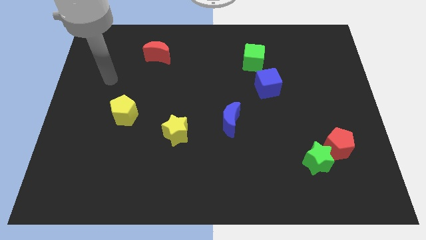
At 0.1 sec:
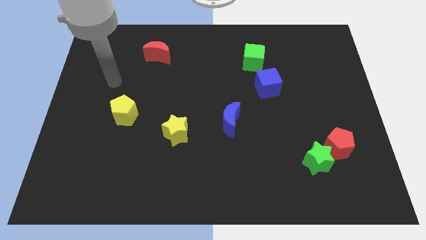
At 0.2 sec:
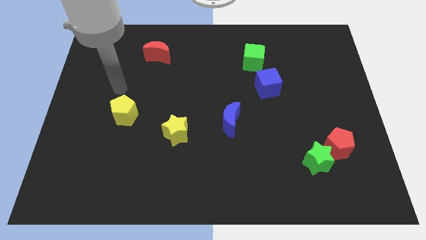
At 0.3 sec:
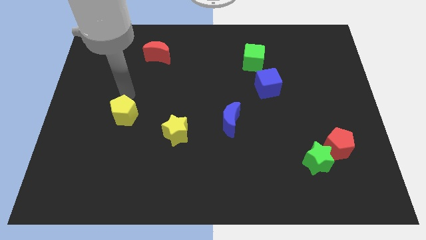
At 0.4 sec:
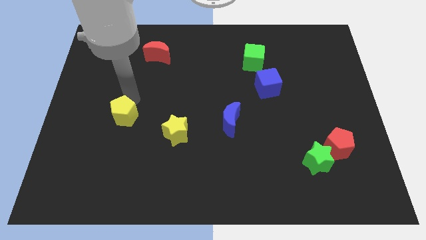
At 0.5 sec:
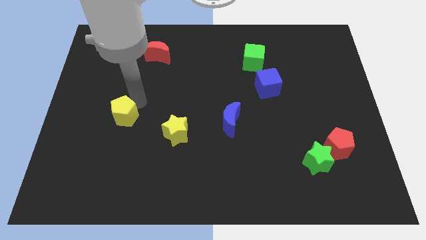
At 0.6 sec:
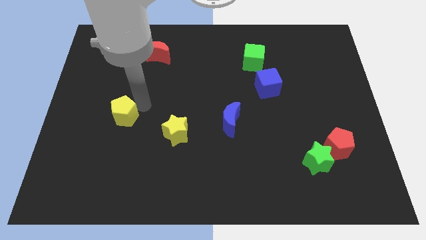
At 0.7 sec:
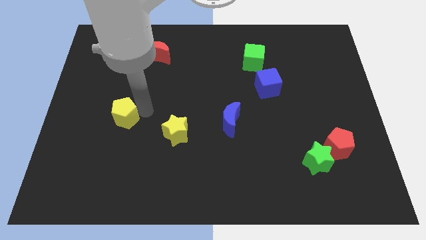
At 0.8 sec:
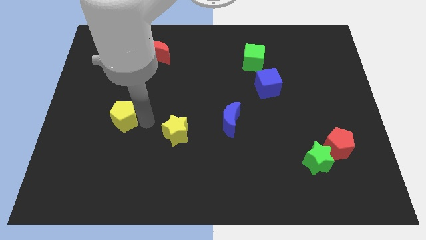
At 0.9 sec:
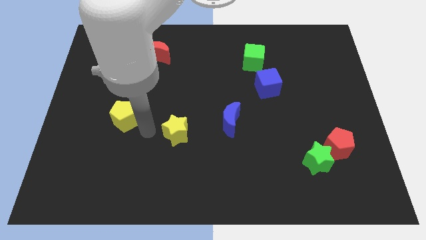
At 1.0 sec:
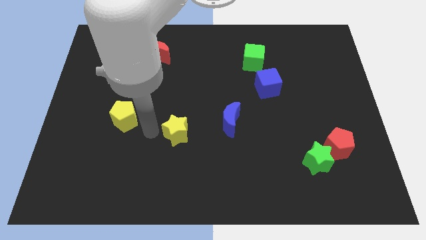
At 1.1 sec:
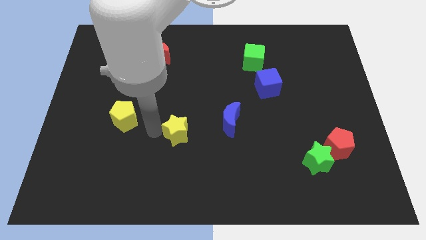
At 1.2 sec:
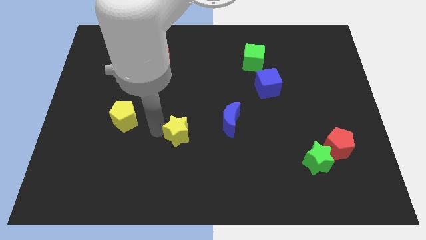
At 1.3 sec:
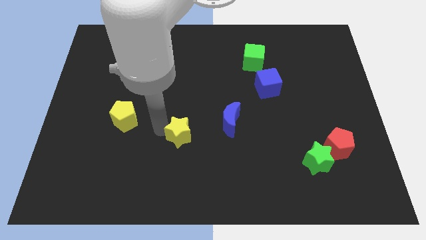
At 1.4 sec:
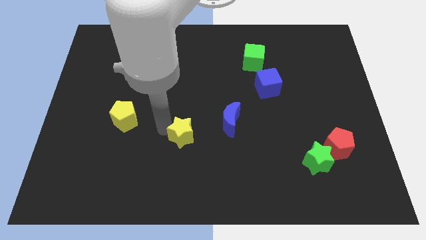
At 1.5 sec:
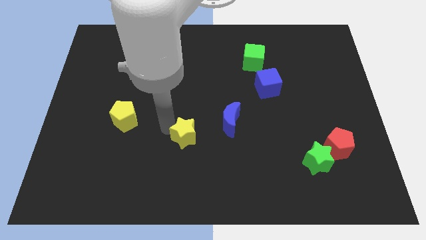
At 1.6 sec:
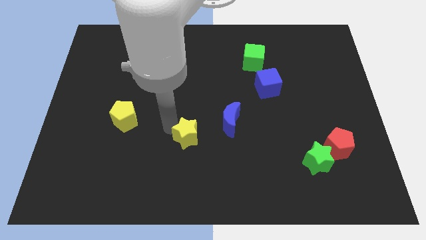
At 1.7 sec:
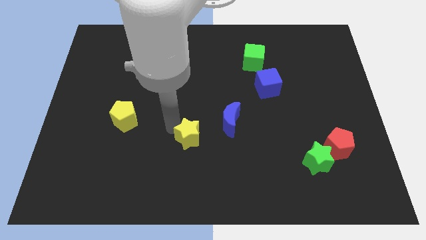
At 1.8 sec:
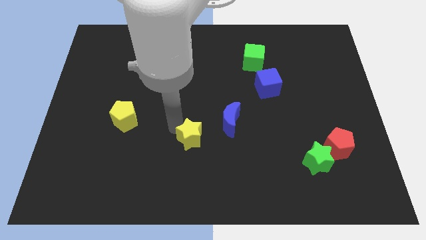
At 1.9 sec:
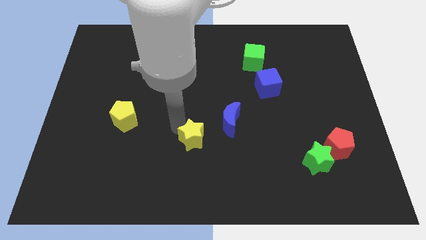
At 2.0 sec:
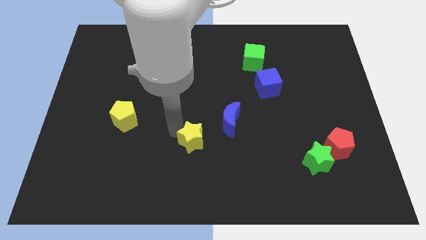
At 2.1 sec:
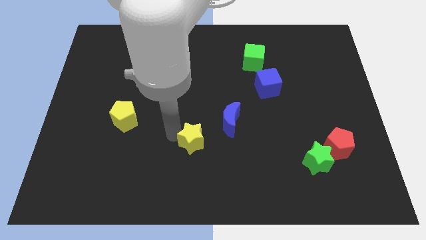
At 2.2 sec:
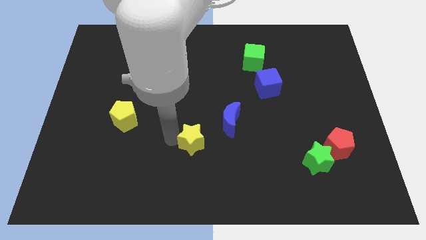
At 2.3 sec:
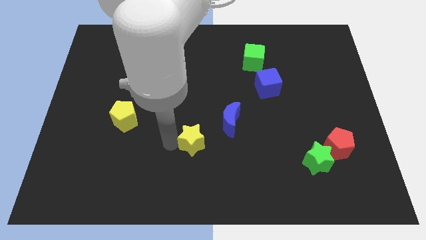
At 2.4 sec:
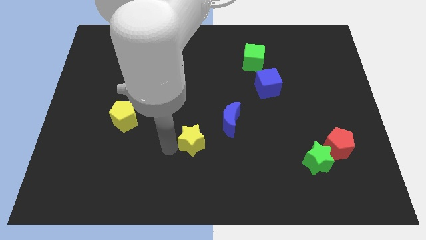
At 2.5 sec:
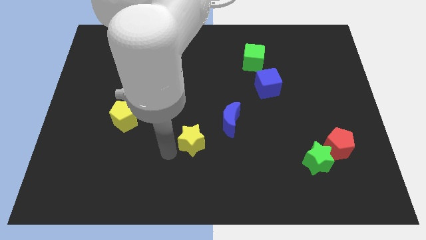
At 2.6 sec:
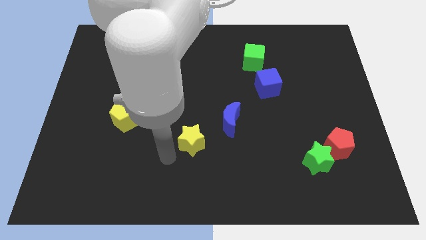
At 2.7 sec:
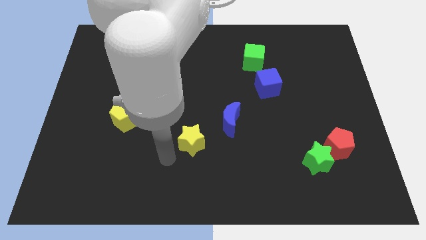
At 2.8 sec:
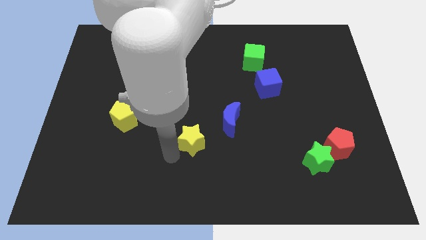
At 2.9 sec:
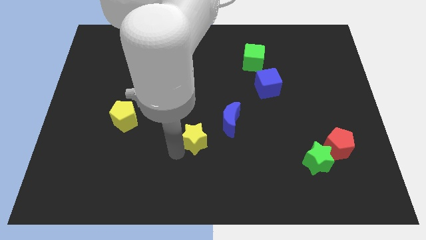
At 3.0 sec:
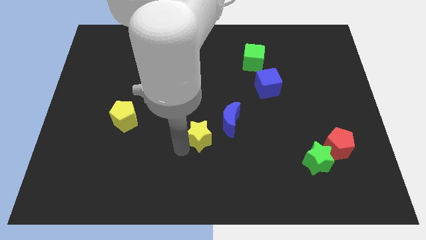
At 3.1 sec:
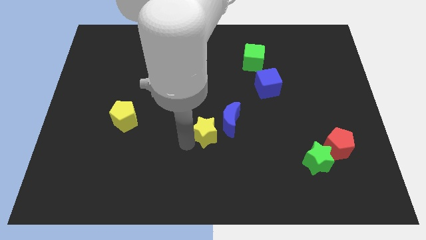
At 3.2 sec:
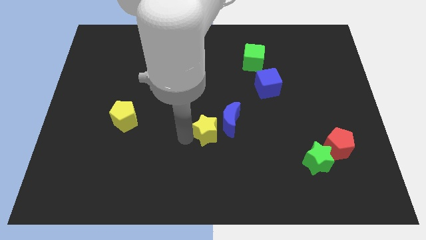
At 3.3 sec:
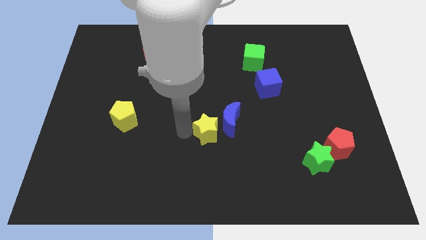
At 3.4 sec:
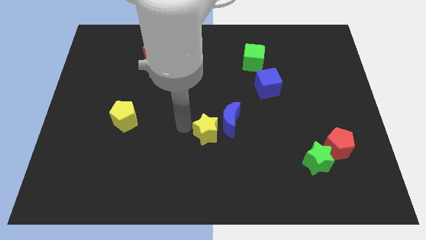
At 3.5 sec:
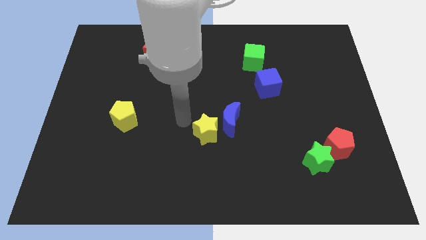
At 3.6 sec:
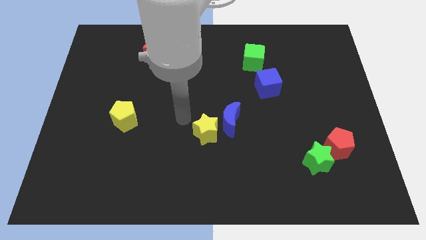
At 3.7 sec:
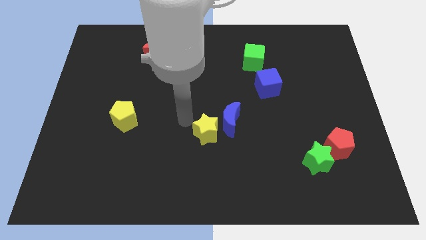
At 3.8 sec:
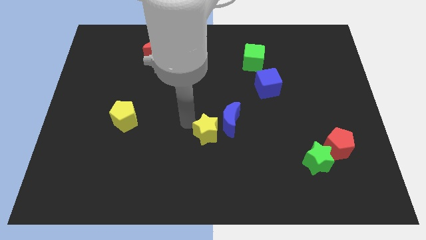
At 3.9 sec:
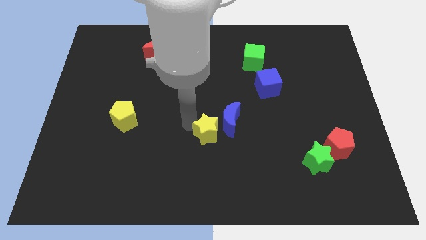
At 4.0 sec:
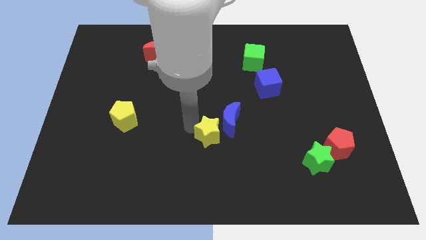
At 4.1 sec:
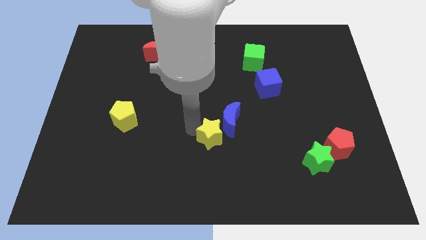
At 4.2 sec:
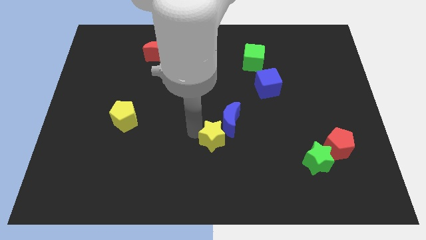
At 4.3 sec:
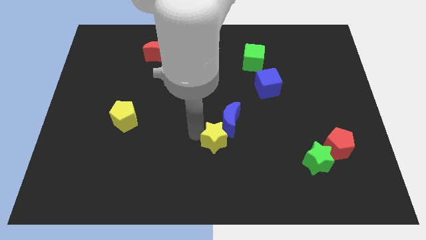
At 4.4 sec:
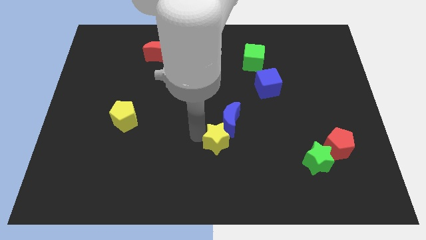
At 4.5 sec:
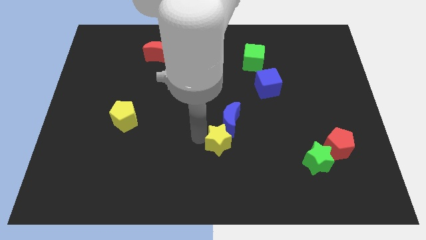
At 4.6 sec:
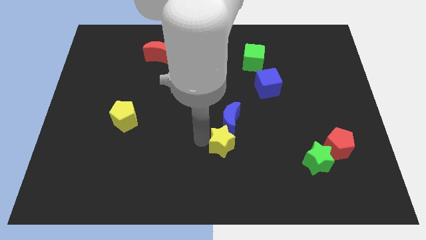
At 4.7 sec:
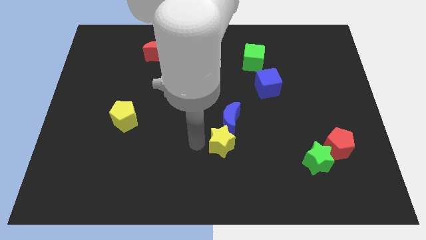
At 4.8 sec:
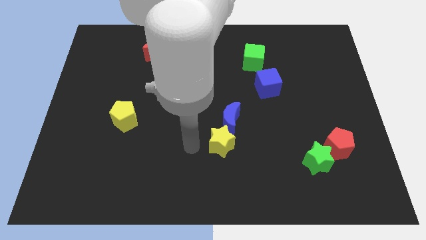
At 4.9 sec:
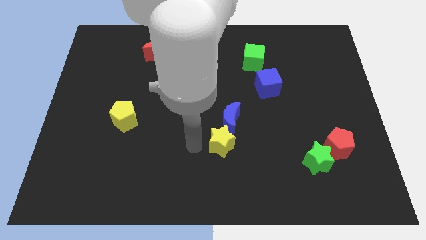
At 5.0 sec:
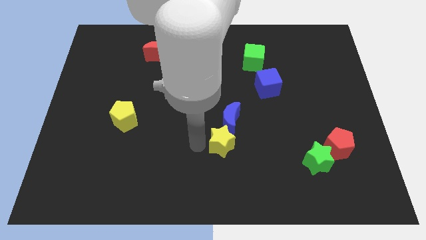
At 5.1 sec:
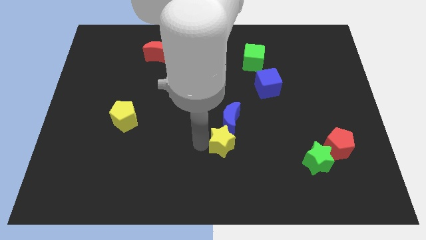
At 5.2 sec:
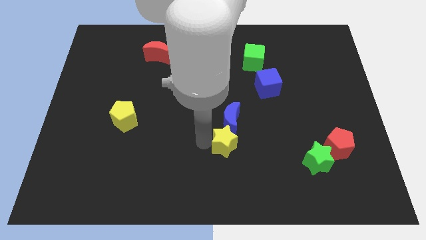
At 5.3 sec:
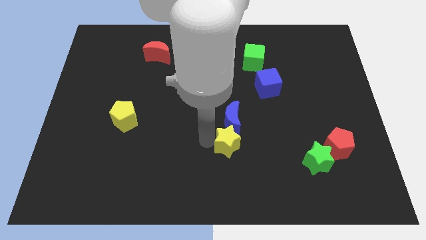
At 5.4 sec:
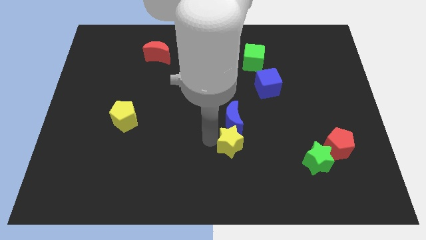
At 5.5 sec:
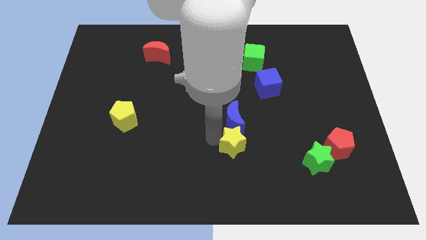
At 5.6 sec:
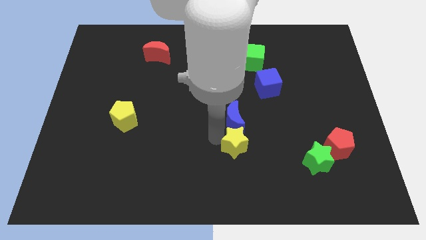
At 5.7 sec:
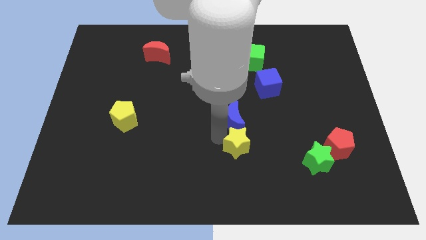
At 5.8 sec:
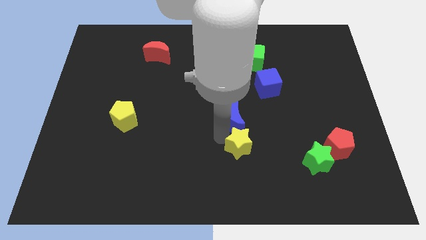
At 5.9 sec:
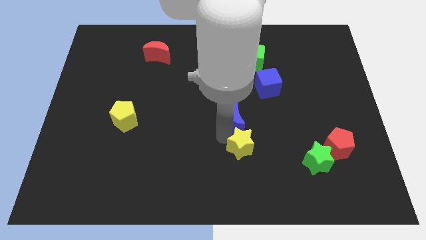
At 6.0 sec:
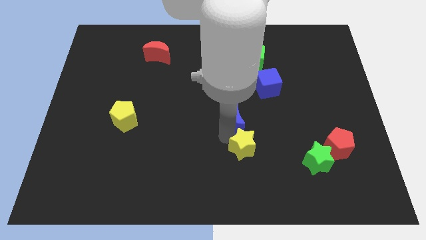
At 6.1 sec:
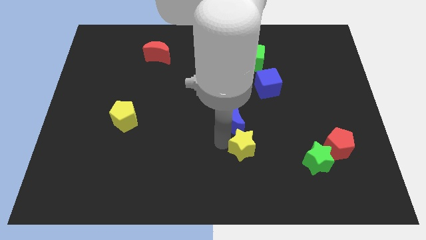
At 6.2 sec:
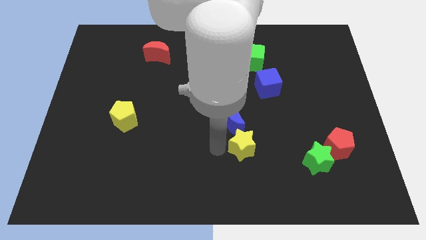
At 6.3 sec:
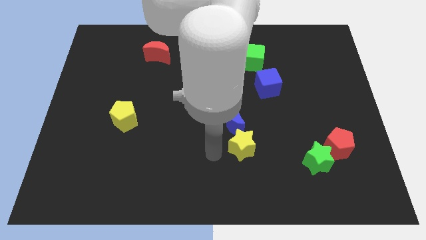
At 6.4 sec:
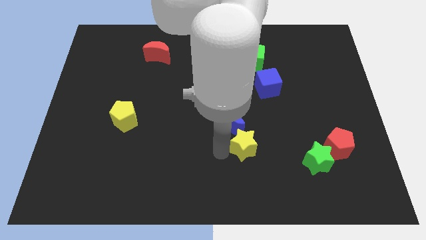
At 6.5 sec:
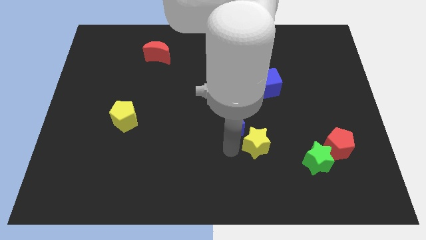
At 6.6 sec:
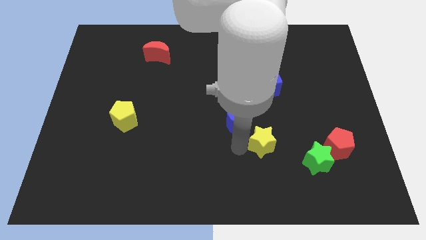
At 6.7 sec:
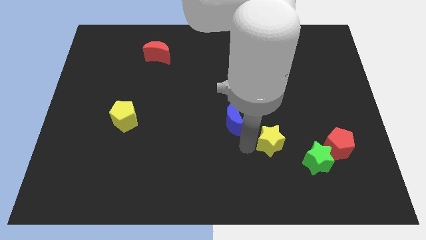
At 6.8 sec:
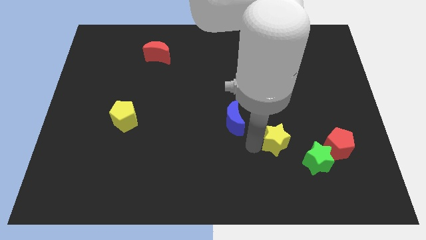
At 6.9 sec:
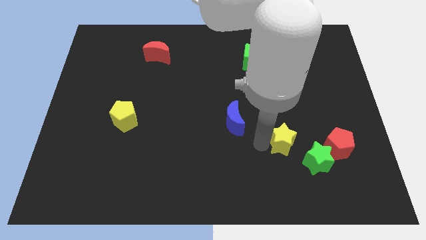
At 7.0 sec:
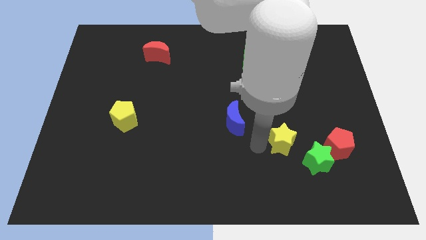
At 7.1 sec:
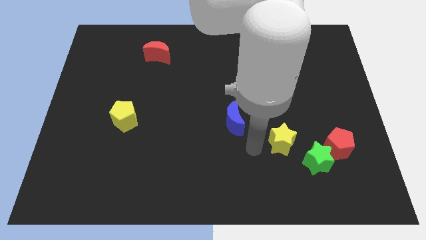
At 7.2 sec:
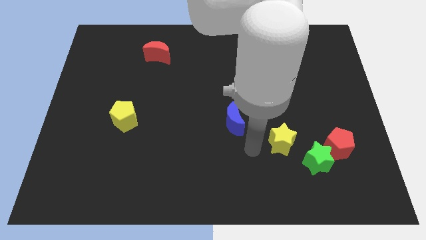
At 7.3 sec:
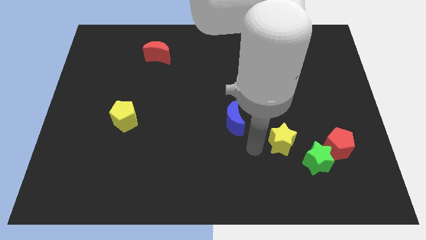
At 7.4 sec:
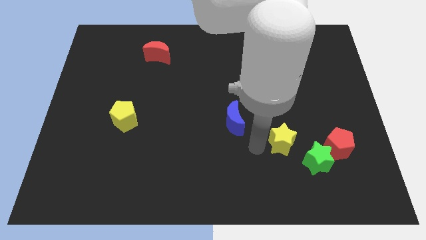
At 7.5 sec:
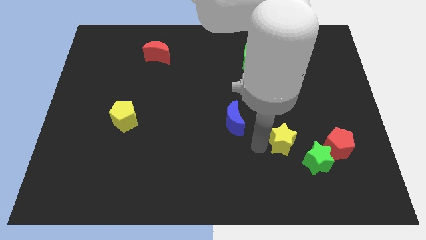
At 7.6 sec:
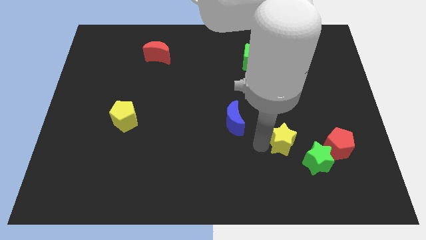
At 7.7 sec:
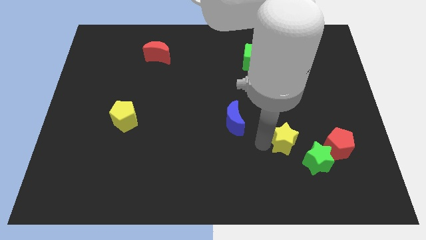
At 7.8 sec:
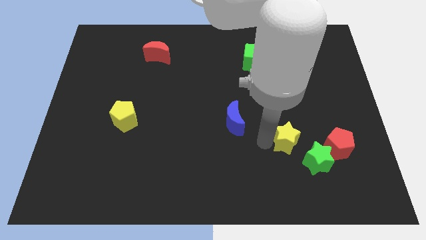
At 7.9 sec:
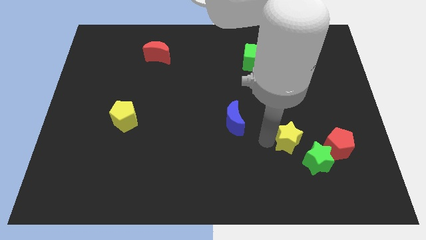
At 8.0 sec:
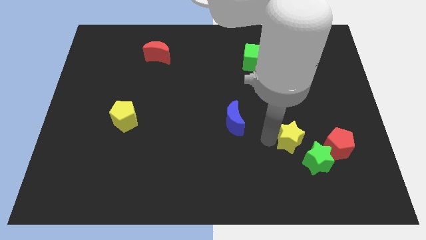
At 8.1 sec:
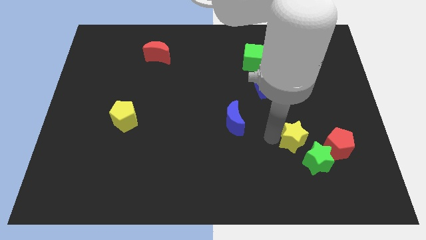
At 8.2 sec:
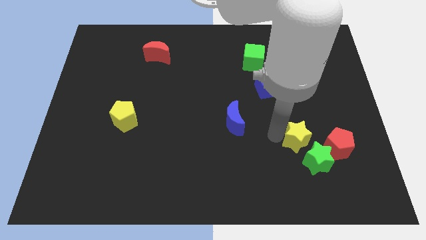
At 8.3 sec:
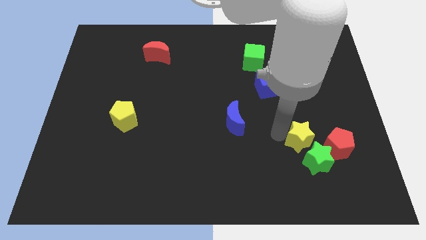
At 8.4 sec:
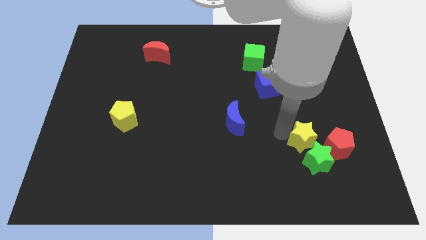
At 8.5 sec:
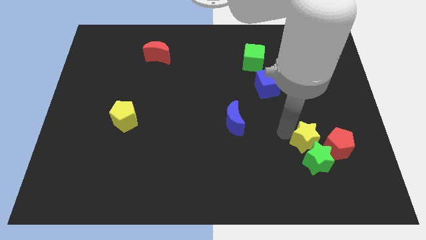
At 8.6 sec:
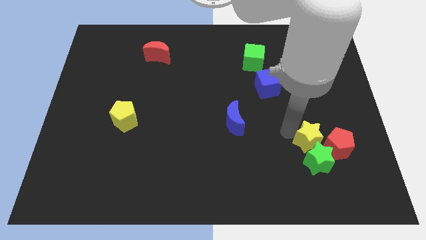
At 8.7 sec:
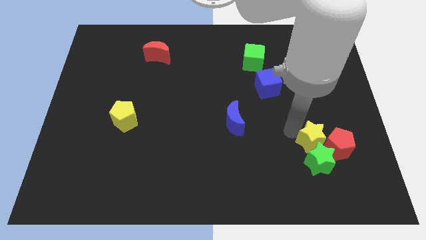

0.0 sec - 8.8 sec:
move the yellow star to the top right side of the green star
